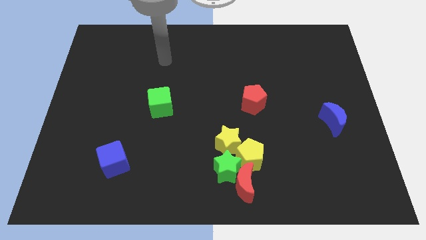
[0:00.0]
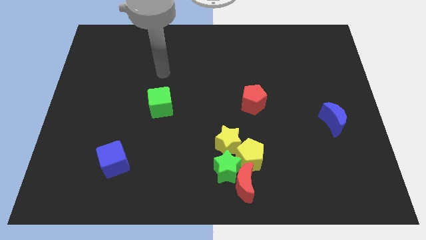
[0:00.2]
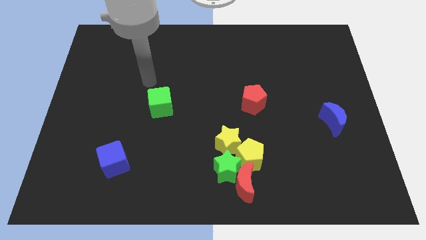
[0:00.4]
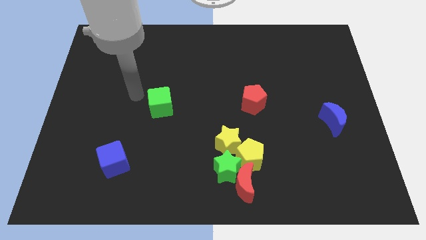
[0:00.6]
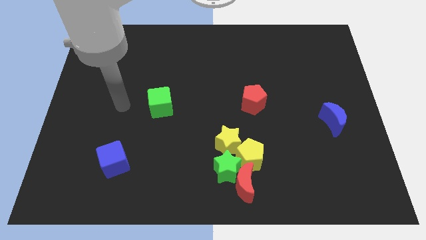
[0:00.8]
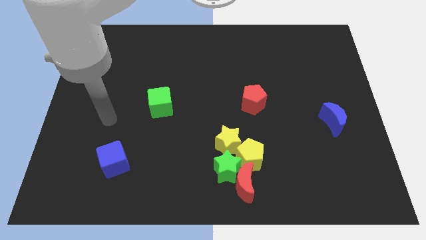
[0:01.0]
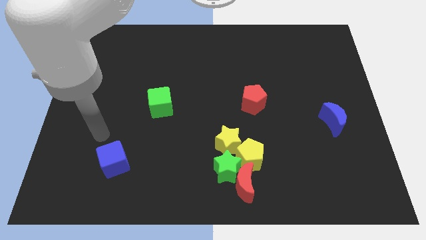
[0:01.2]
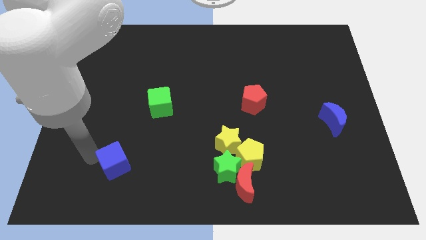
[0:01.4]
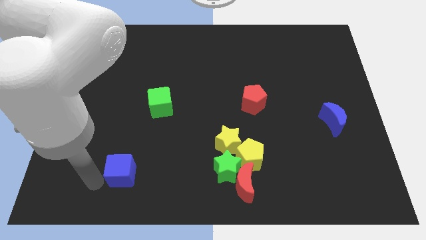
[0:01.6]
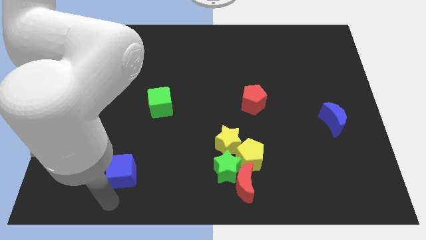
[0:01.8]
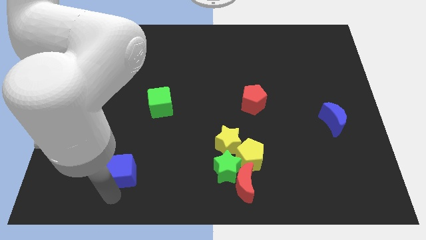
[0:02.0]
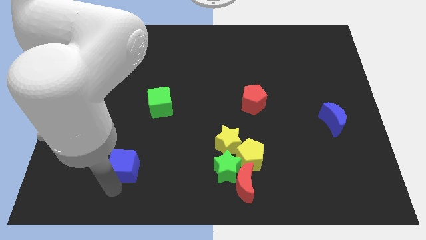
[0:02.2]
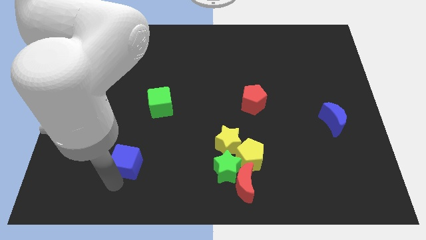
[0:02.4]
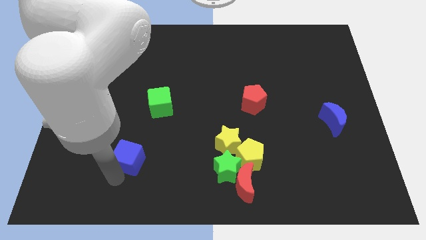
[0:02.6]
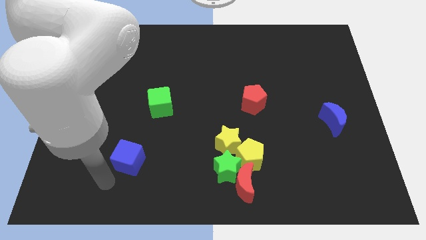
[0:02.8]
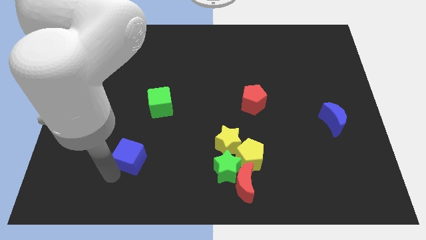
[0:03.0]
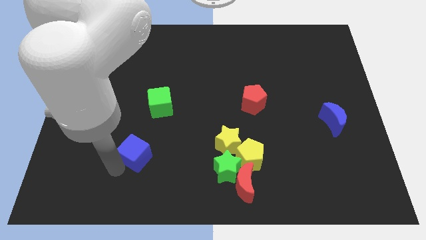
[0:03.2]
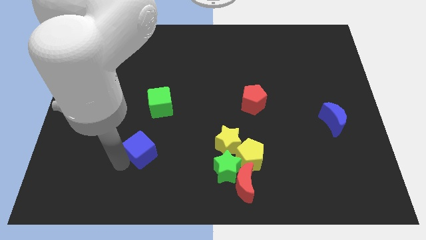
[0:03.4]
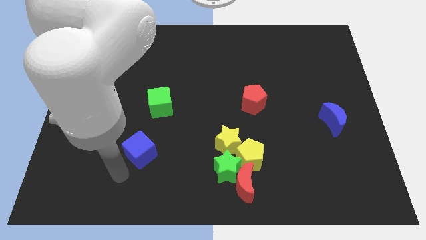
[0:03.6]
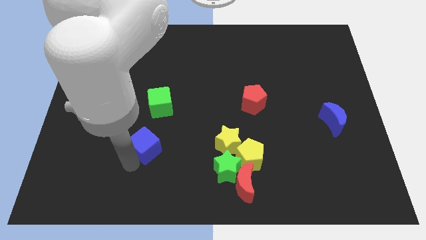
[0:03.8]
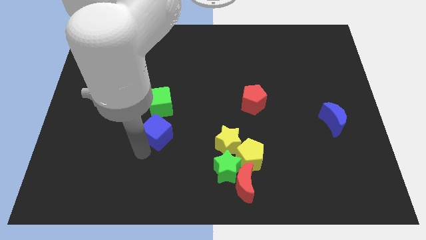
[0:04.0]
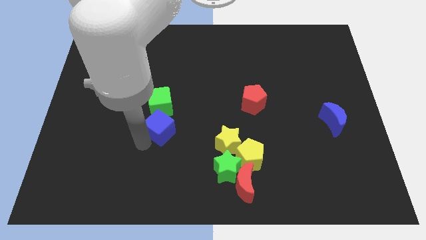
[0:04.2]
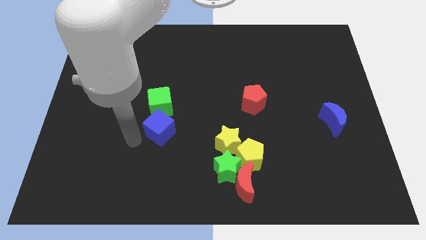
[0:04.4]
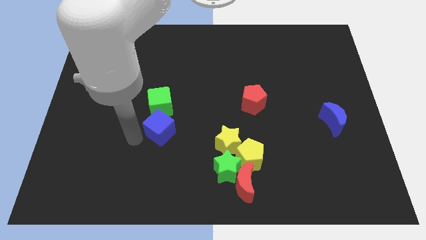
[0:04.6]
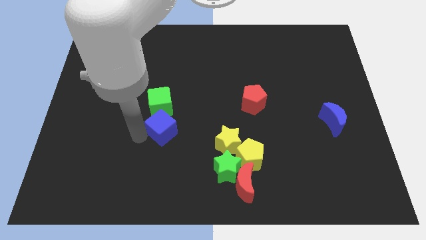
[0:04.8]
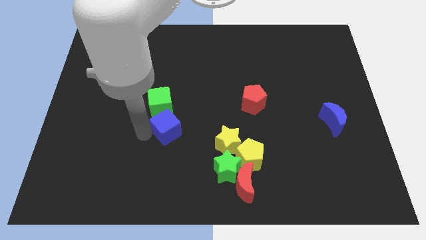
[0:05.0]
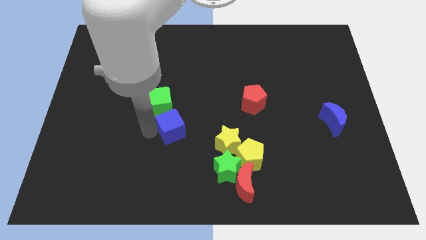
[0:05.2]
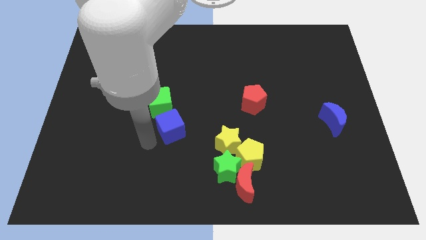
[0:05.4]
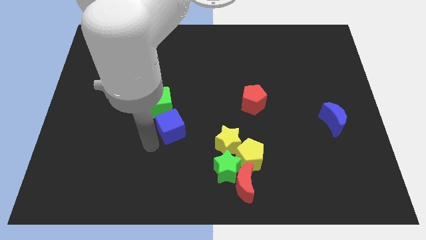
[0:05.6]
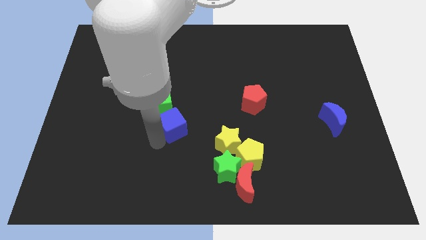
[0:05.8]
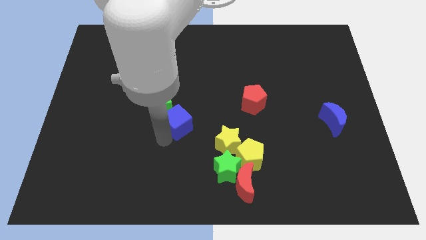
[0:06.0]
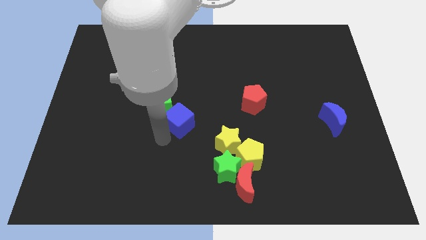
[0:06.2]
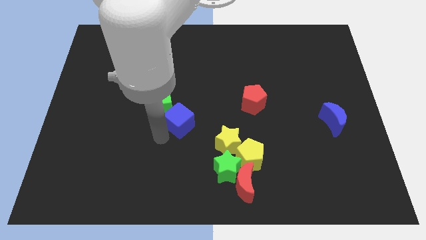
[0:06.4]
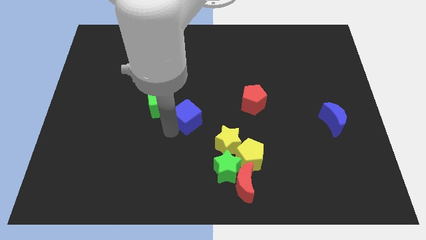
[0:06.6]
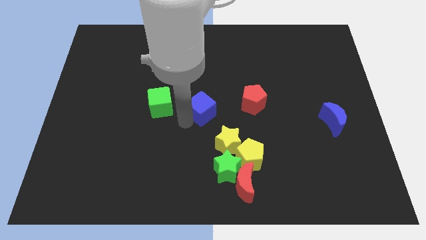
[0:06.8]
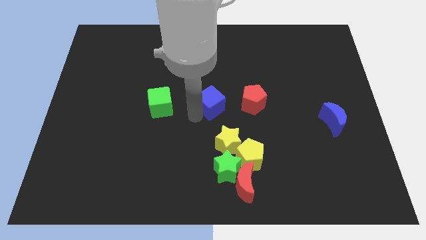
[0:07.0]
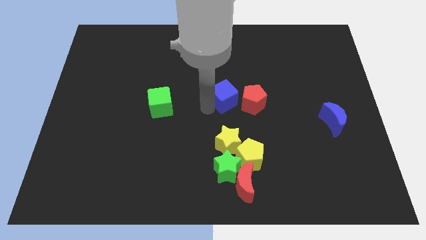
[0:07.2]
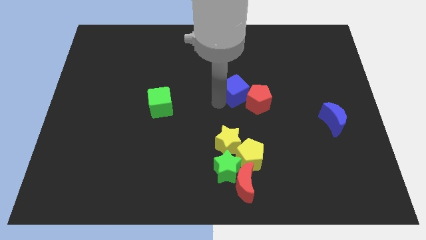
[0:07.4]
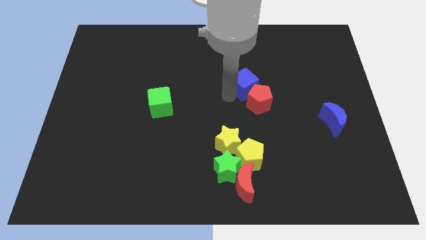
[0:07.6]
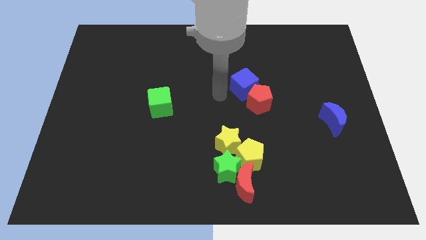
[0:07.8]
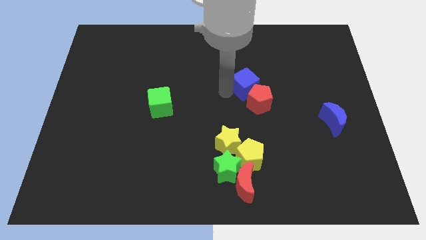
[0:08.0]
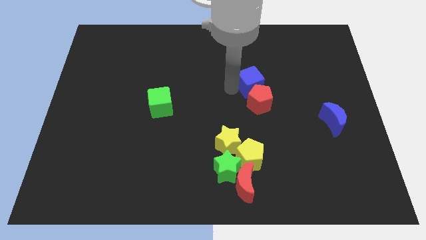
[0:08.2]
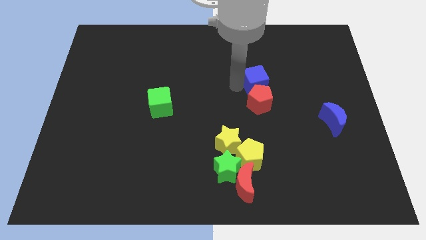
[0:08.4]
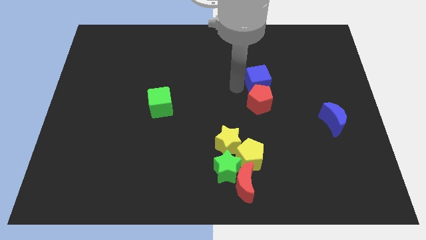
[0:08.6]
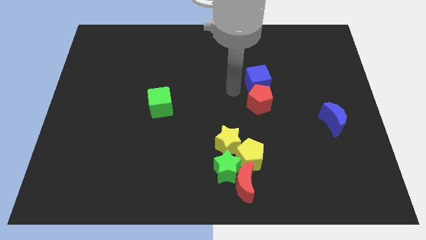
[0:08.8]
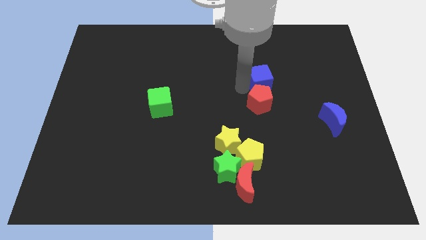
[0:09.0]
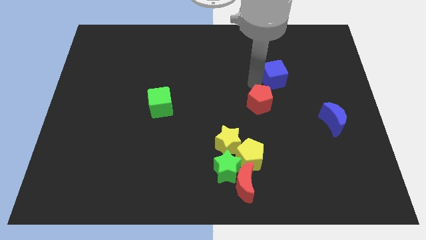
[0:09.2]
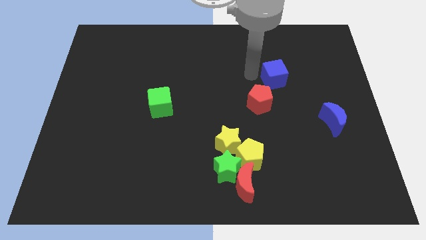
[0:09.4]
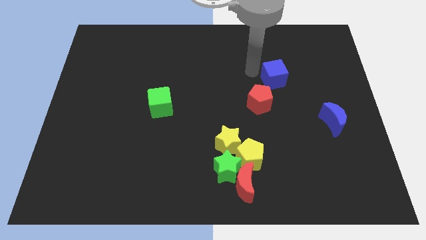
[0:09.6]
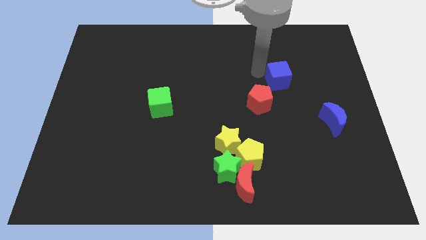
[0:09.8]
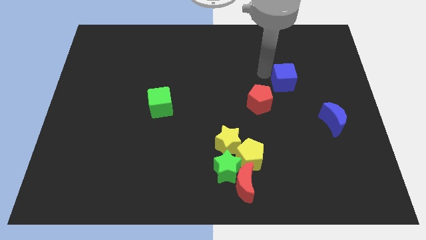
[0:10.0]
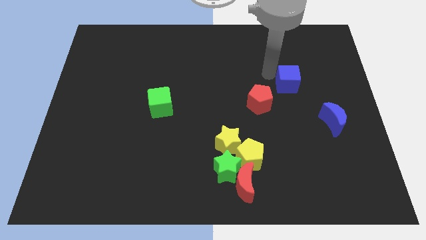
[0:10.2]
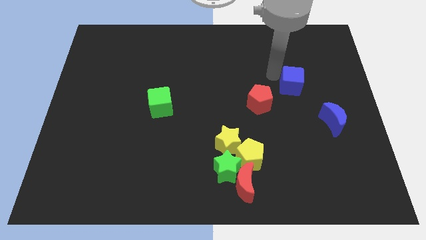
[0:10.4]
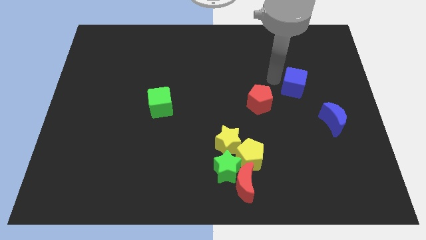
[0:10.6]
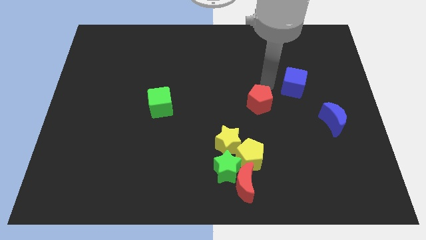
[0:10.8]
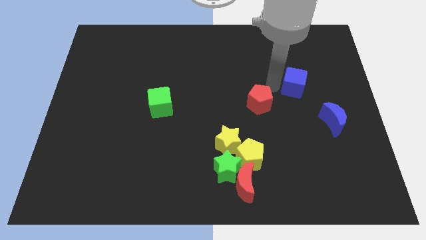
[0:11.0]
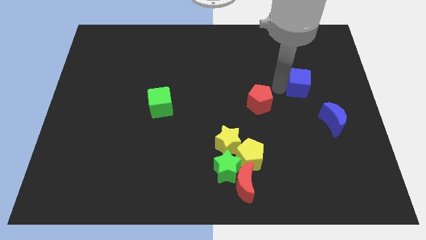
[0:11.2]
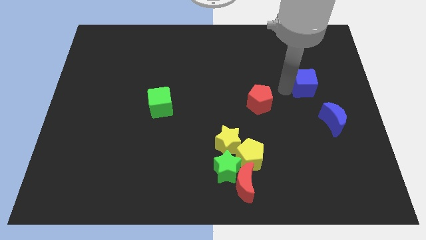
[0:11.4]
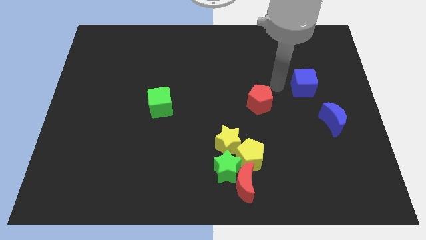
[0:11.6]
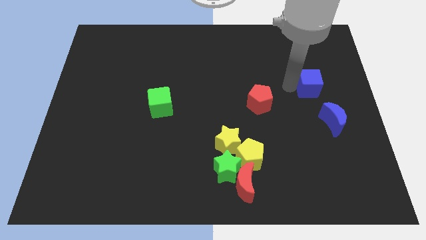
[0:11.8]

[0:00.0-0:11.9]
put the blue cube above the blue moon

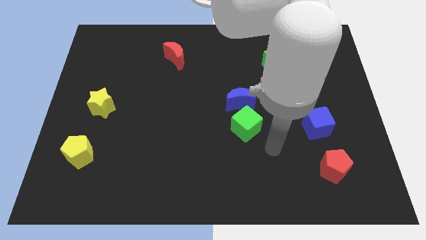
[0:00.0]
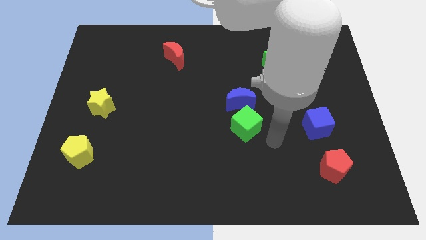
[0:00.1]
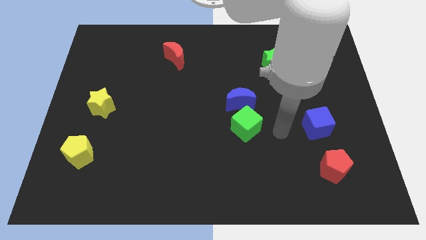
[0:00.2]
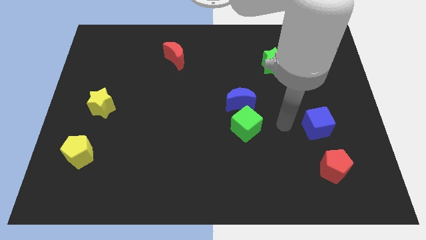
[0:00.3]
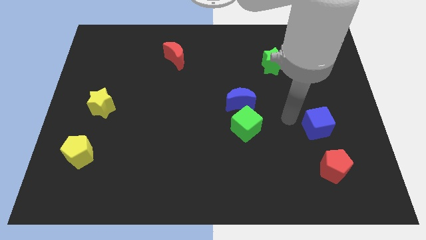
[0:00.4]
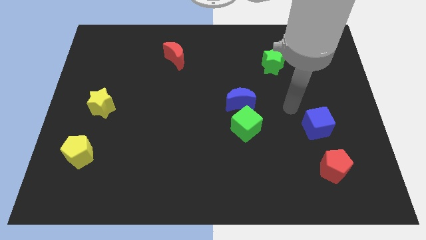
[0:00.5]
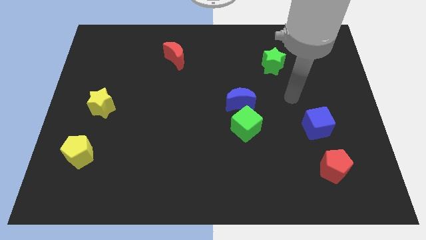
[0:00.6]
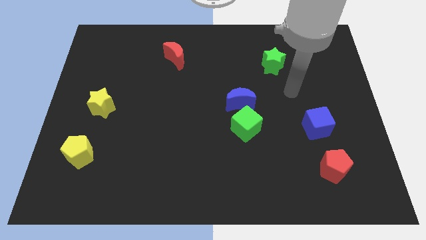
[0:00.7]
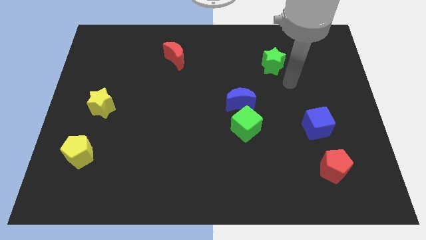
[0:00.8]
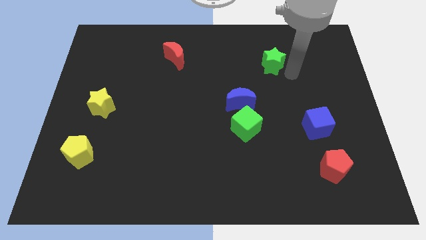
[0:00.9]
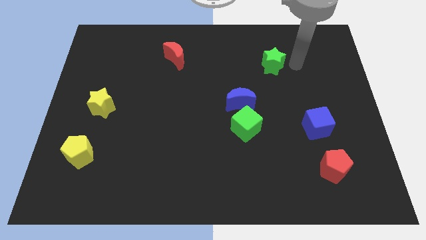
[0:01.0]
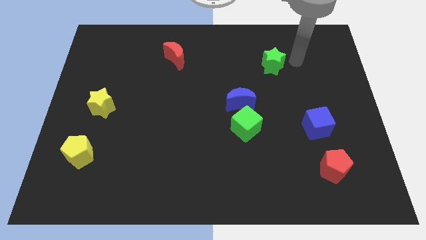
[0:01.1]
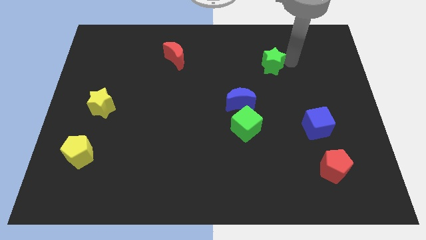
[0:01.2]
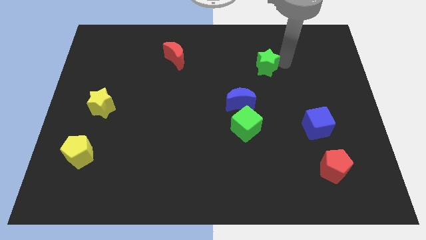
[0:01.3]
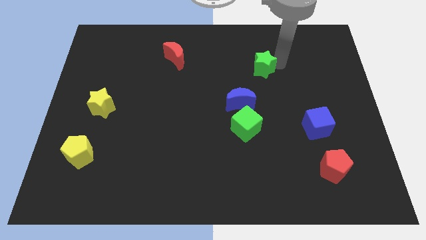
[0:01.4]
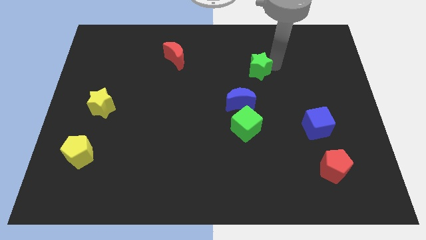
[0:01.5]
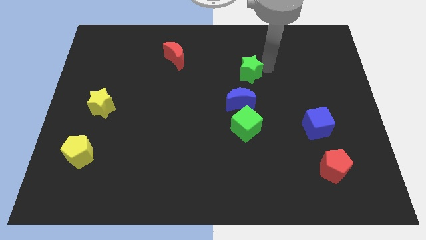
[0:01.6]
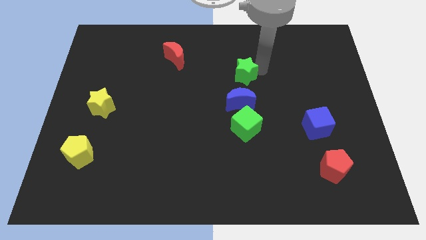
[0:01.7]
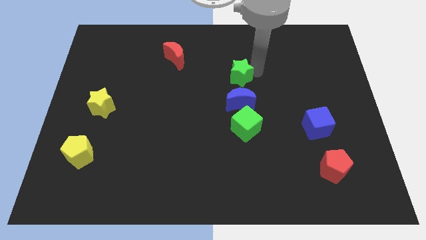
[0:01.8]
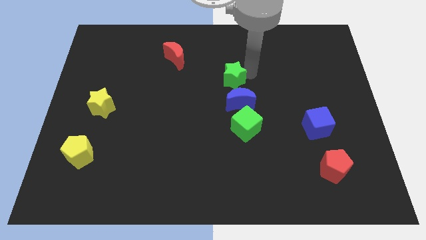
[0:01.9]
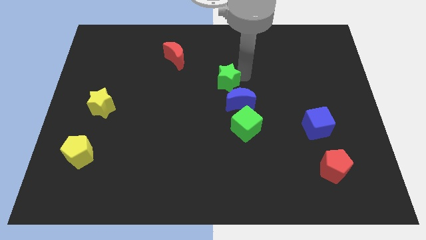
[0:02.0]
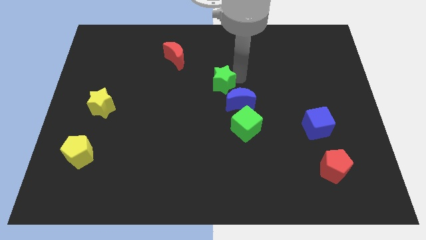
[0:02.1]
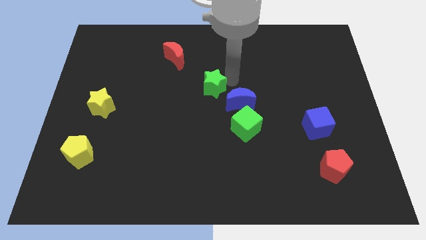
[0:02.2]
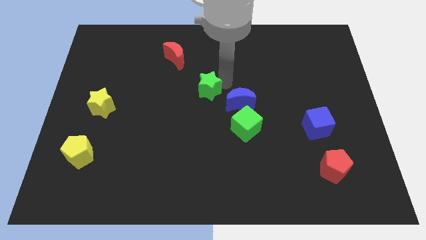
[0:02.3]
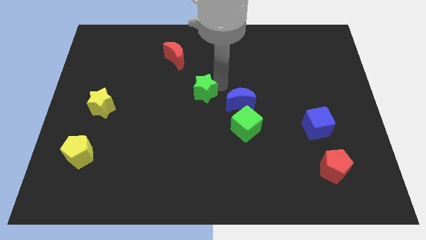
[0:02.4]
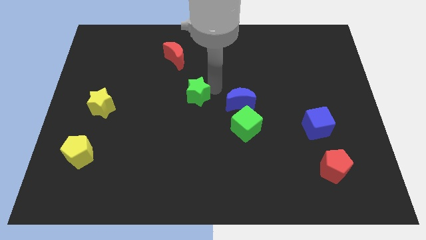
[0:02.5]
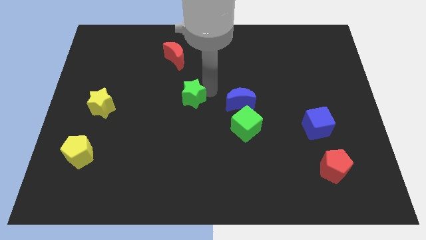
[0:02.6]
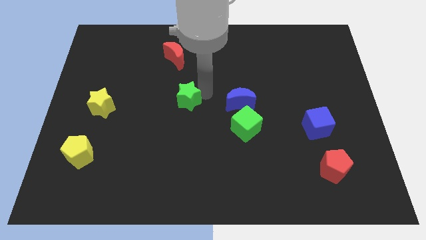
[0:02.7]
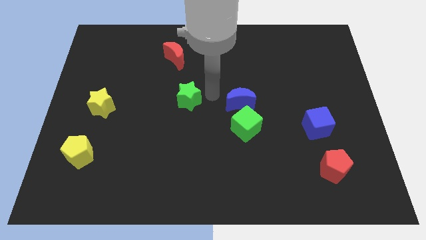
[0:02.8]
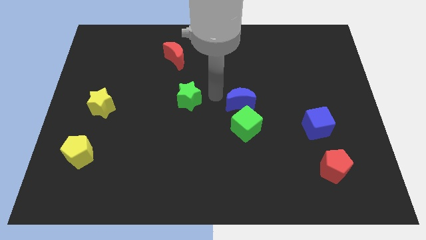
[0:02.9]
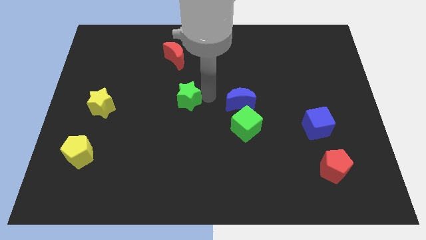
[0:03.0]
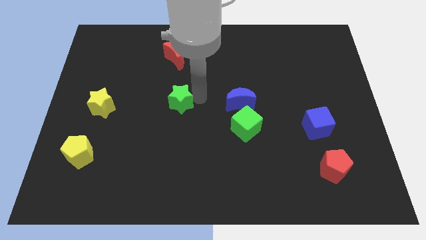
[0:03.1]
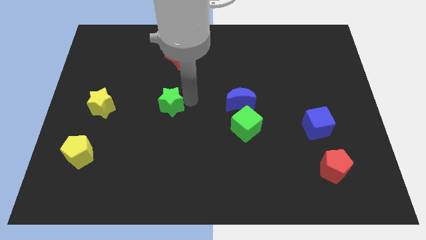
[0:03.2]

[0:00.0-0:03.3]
push the green star just right of the yellow star
